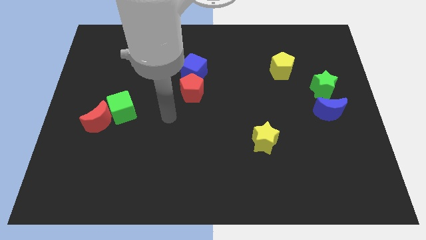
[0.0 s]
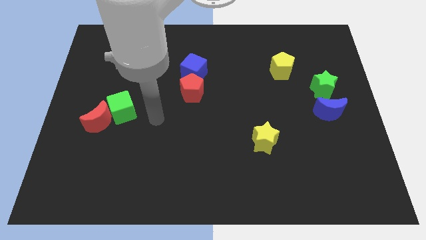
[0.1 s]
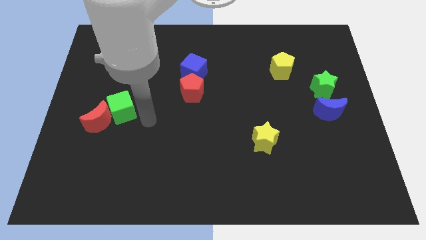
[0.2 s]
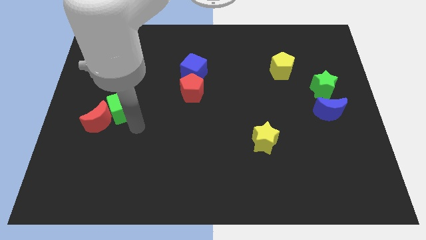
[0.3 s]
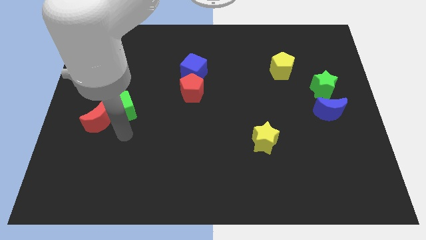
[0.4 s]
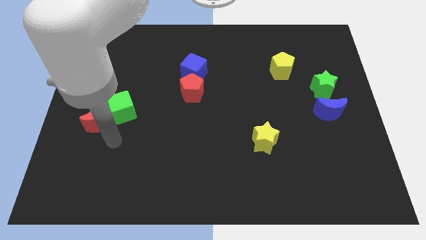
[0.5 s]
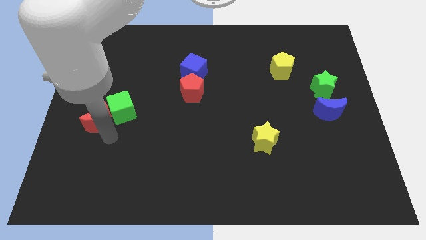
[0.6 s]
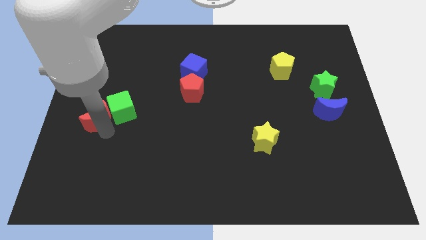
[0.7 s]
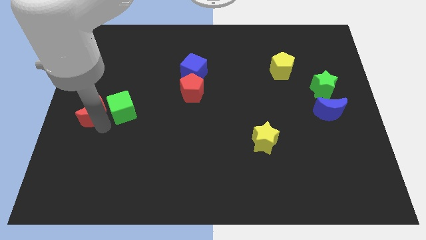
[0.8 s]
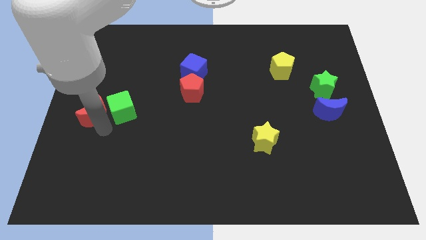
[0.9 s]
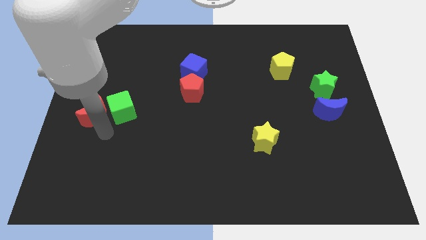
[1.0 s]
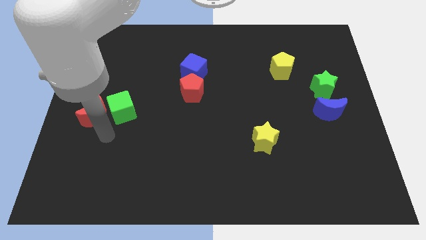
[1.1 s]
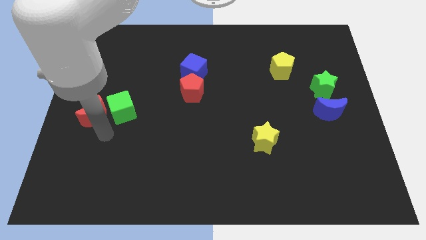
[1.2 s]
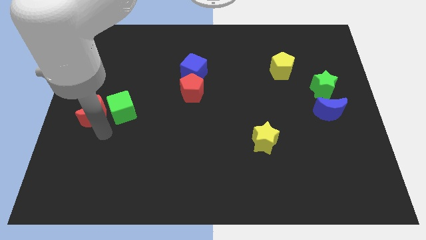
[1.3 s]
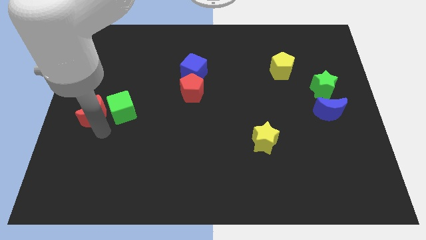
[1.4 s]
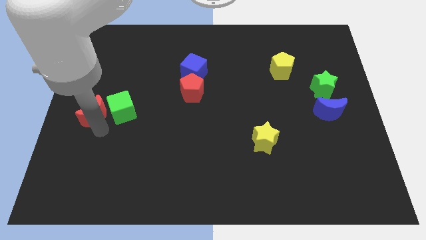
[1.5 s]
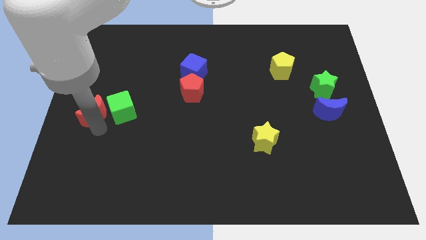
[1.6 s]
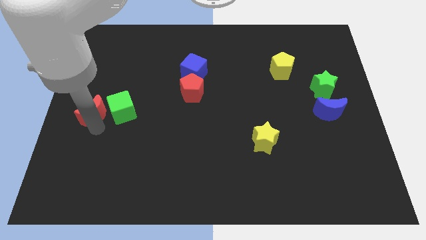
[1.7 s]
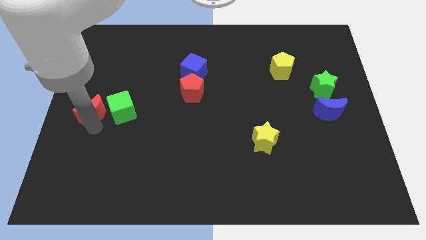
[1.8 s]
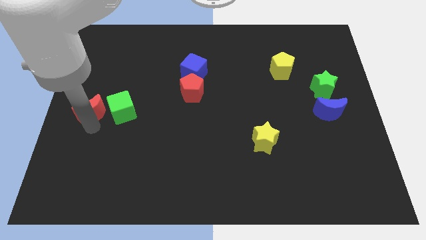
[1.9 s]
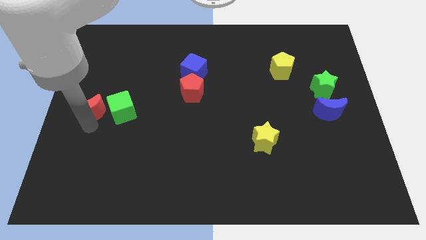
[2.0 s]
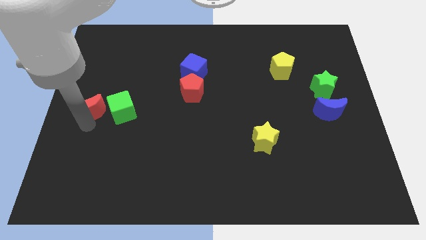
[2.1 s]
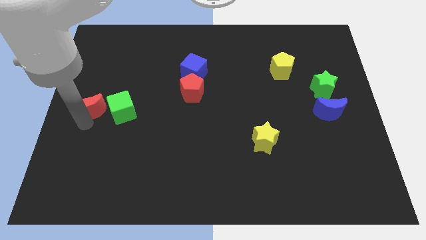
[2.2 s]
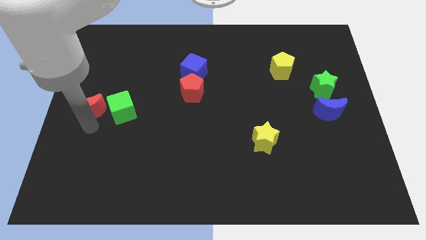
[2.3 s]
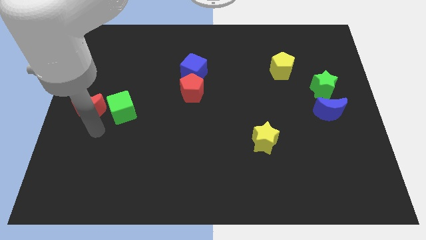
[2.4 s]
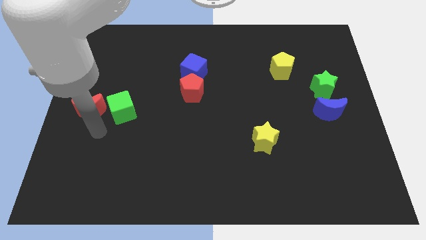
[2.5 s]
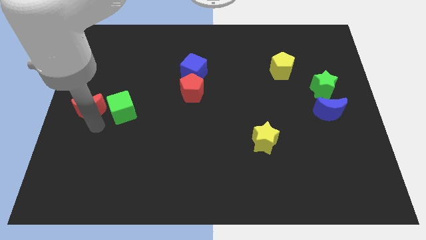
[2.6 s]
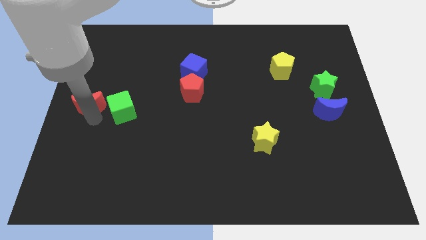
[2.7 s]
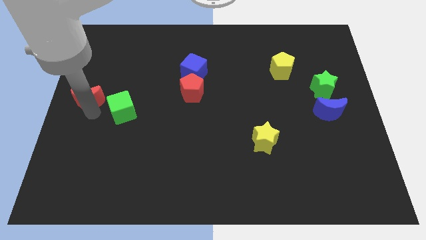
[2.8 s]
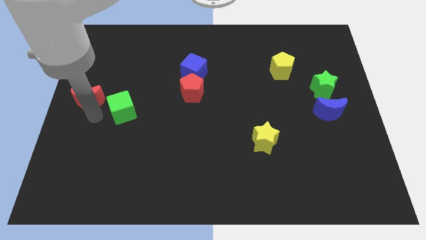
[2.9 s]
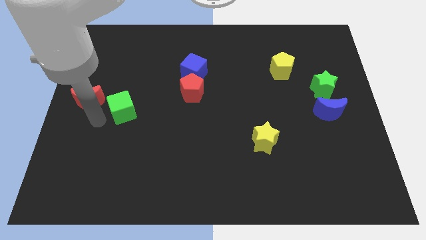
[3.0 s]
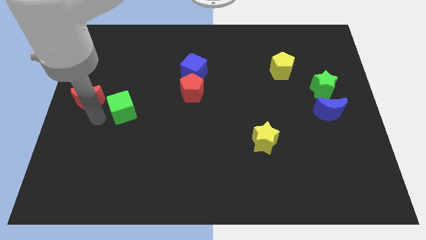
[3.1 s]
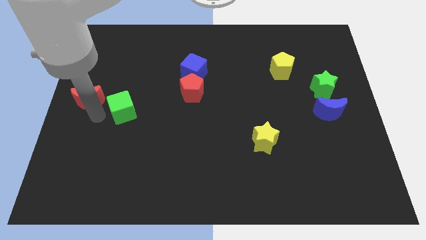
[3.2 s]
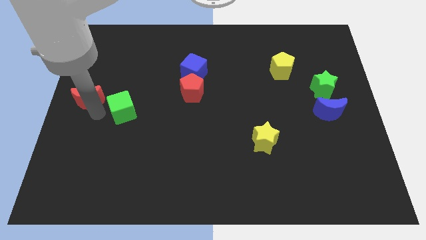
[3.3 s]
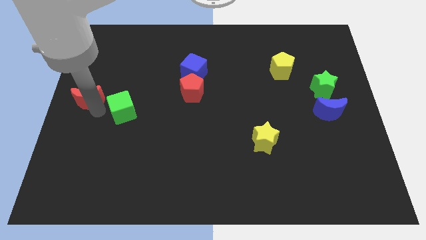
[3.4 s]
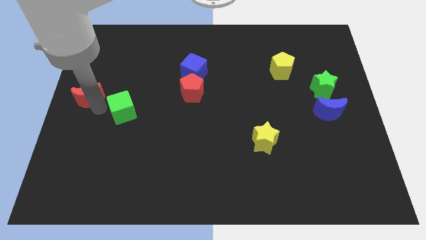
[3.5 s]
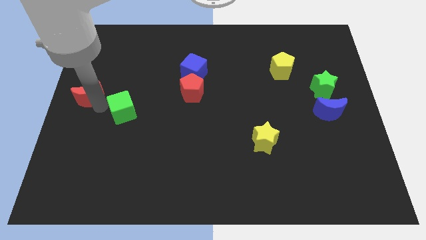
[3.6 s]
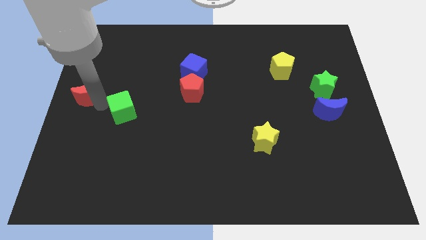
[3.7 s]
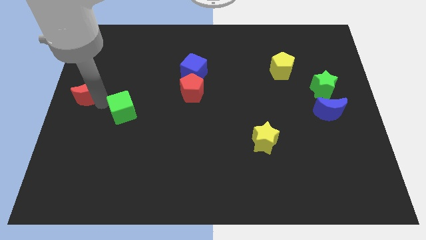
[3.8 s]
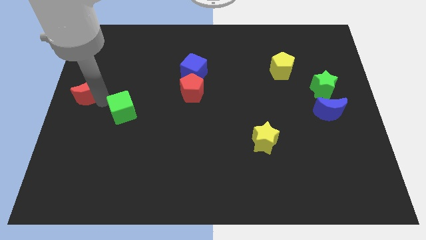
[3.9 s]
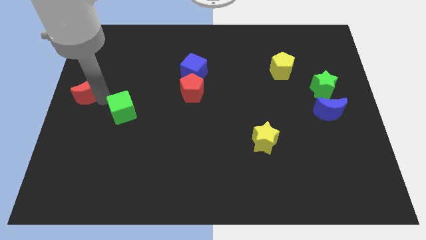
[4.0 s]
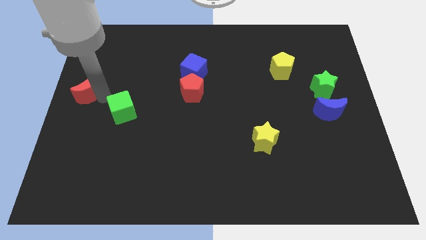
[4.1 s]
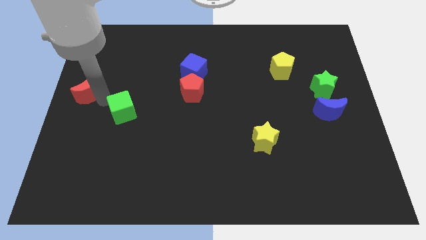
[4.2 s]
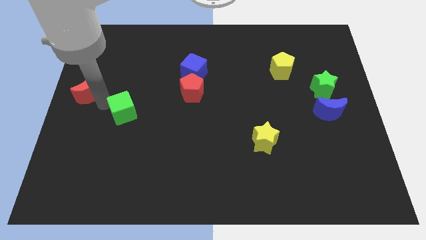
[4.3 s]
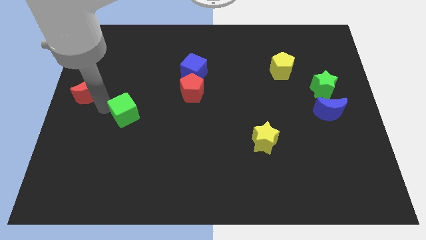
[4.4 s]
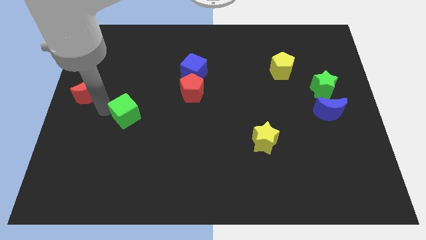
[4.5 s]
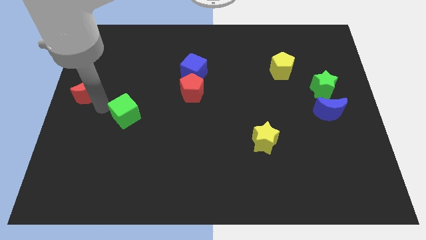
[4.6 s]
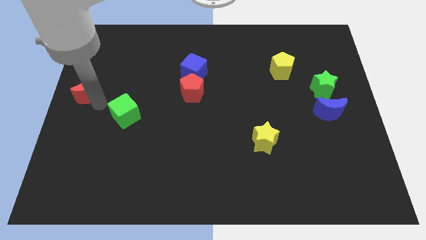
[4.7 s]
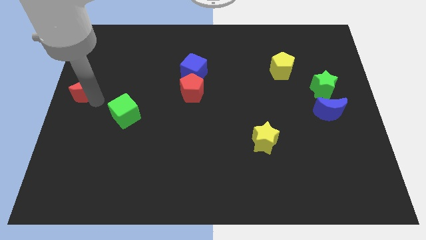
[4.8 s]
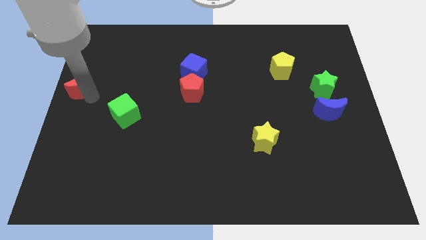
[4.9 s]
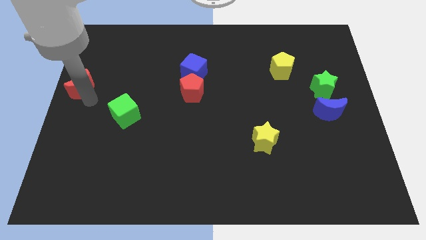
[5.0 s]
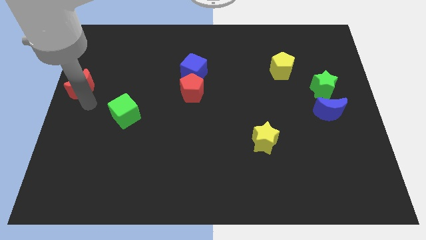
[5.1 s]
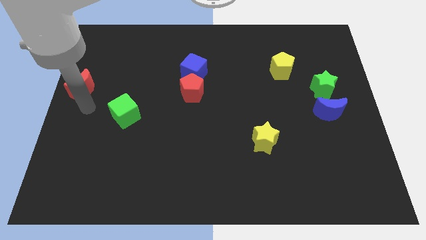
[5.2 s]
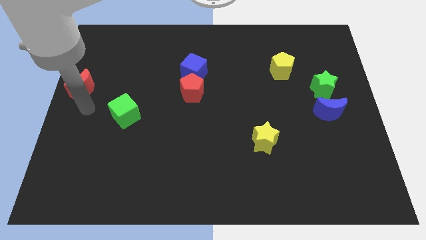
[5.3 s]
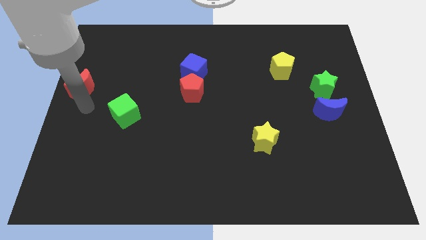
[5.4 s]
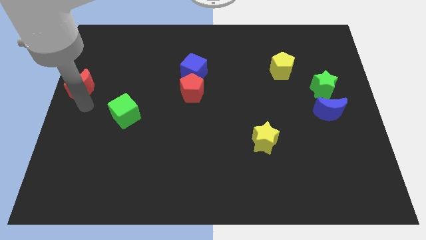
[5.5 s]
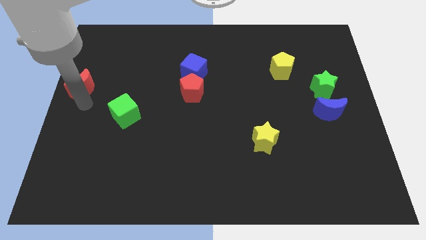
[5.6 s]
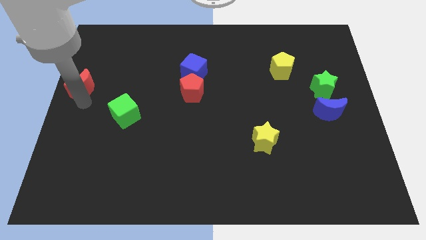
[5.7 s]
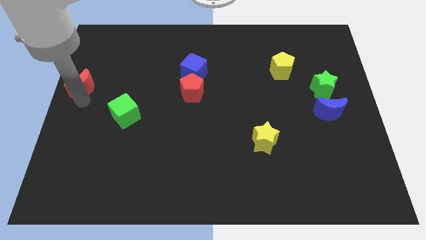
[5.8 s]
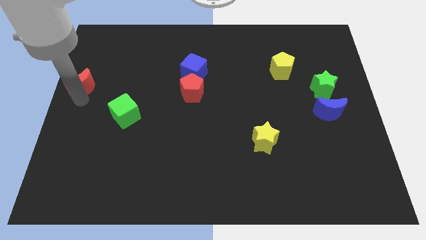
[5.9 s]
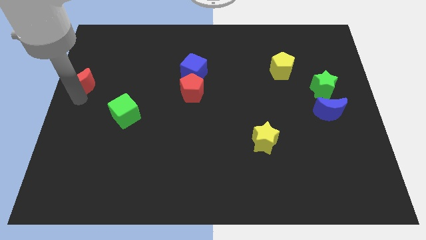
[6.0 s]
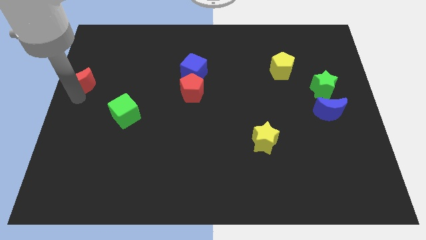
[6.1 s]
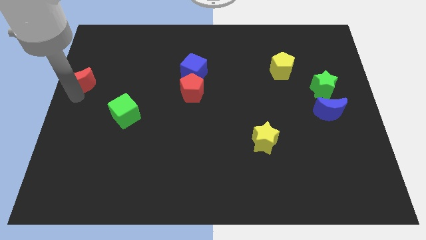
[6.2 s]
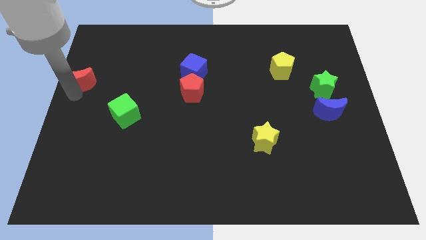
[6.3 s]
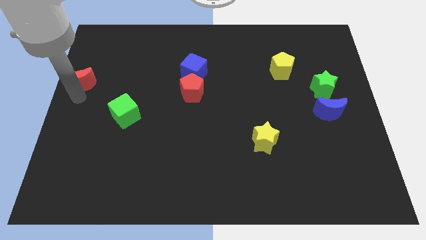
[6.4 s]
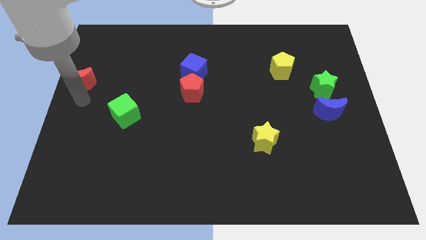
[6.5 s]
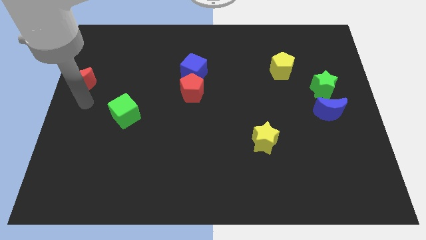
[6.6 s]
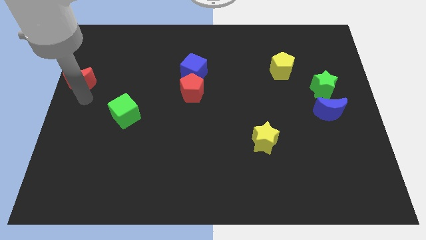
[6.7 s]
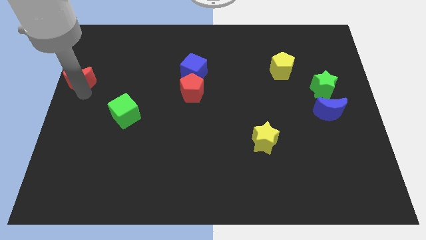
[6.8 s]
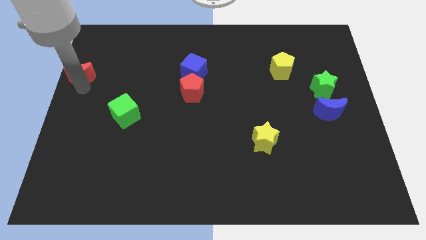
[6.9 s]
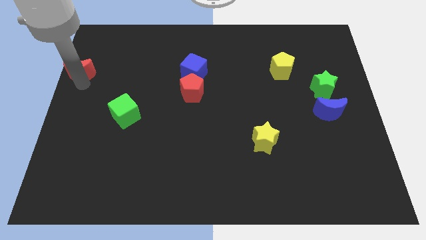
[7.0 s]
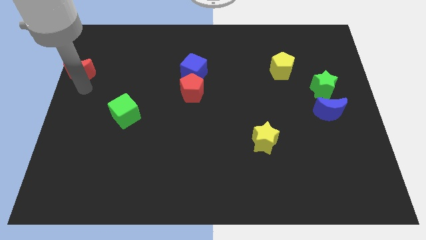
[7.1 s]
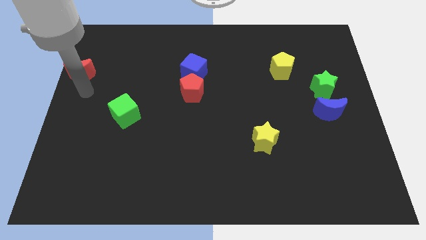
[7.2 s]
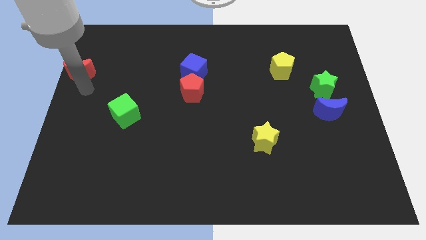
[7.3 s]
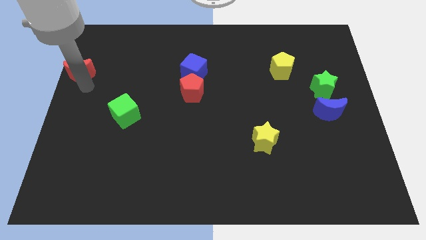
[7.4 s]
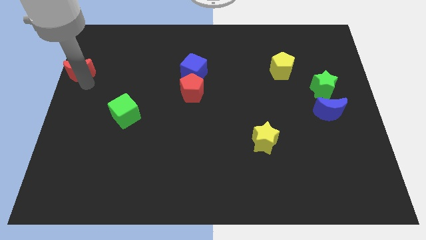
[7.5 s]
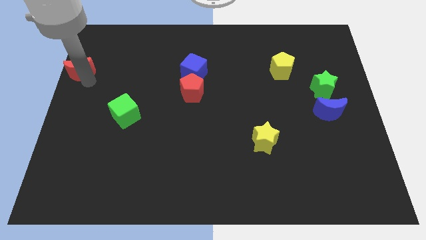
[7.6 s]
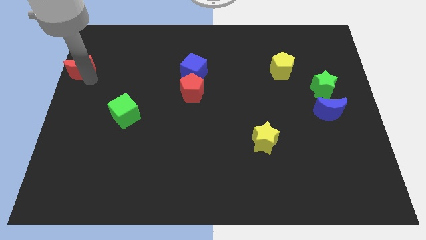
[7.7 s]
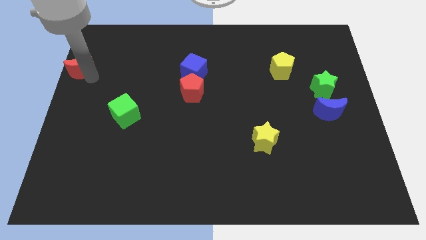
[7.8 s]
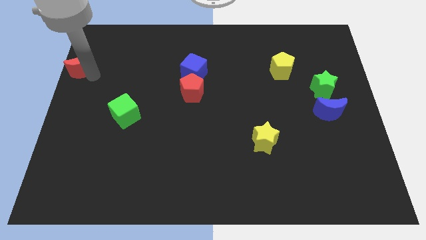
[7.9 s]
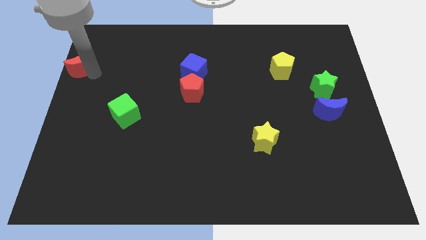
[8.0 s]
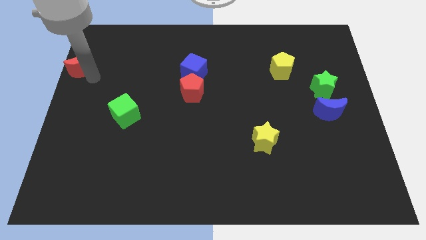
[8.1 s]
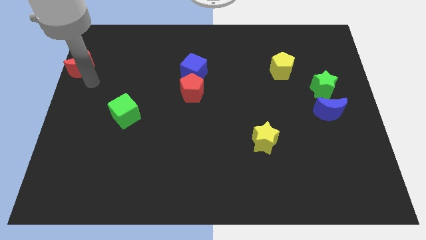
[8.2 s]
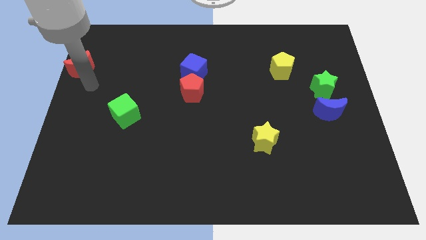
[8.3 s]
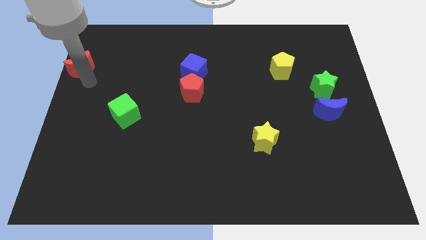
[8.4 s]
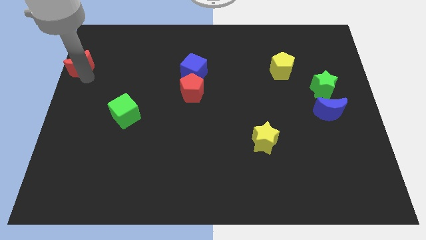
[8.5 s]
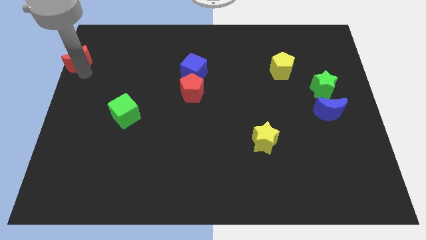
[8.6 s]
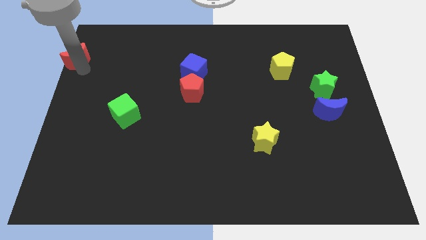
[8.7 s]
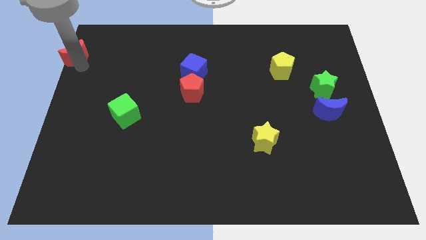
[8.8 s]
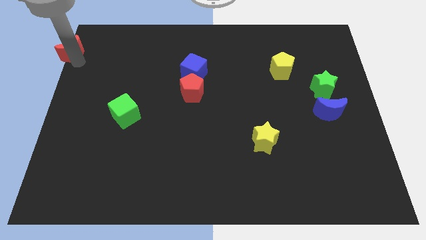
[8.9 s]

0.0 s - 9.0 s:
push the red moon to the top left corner
